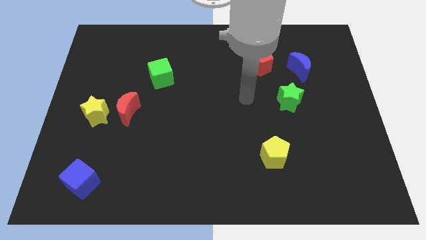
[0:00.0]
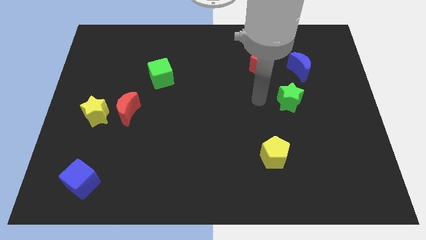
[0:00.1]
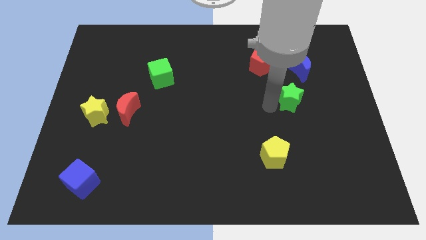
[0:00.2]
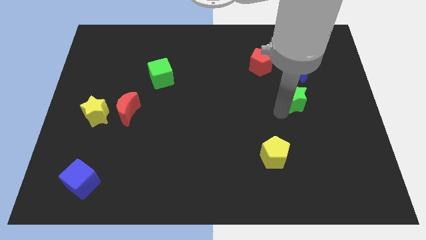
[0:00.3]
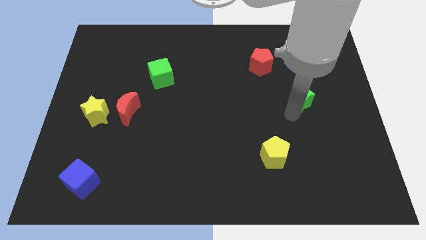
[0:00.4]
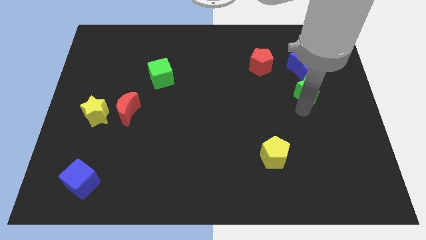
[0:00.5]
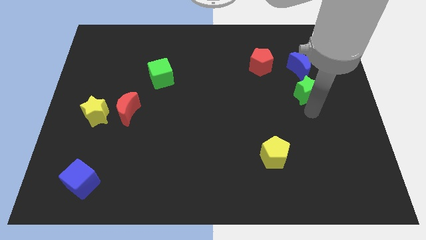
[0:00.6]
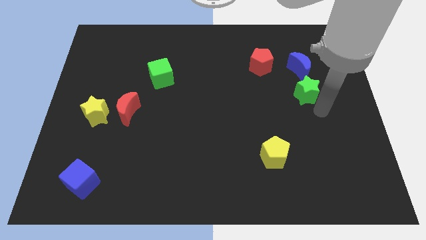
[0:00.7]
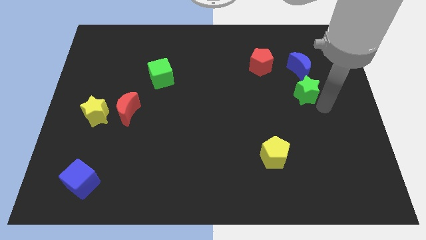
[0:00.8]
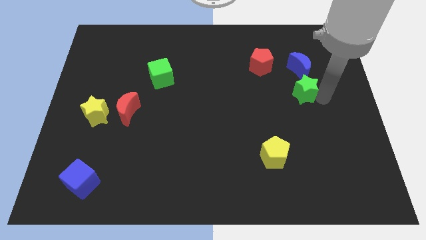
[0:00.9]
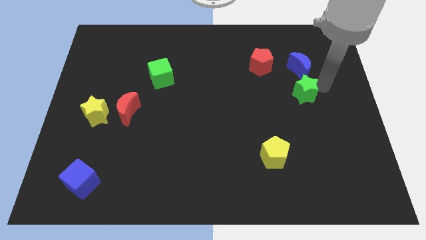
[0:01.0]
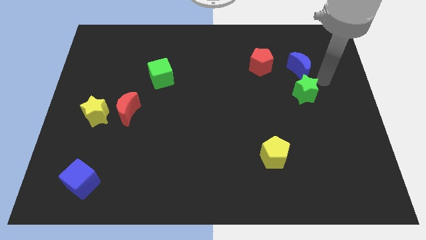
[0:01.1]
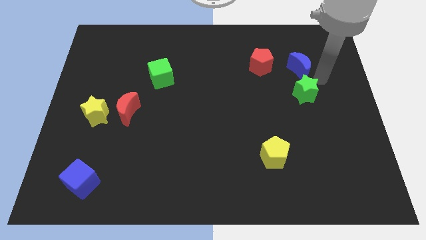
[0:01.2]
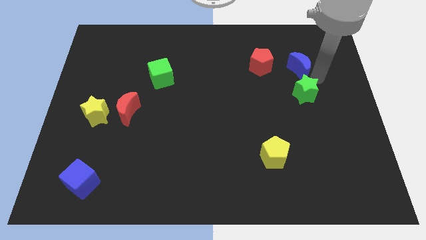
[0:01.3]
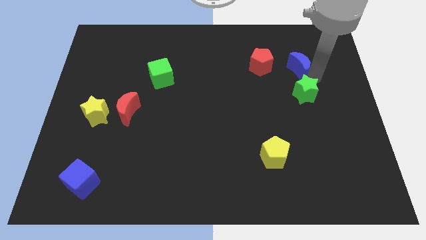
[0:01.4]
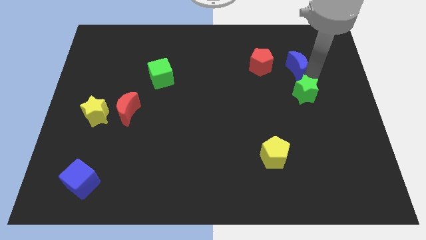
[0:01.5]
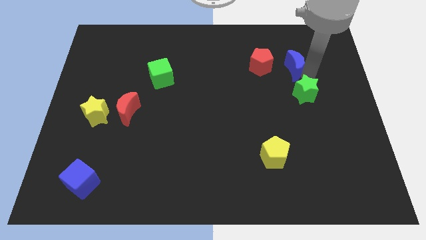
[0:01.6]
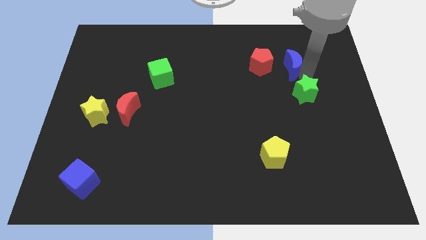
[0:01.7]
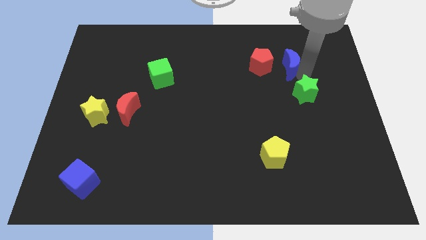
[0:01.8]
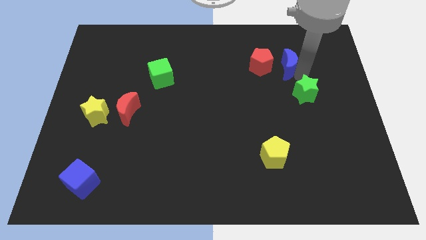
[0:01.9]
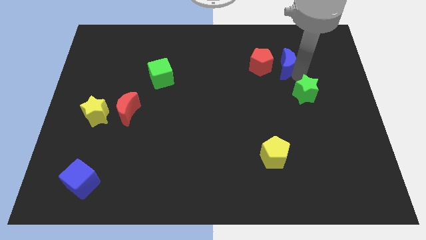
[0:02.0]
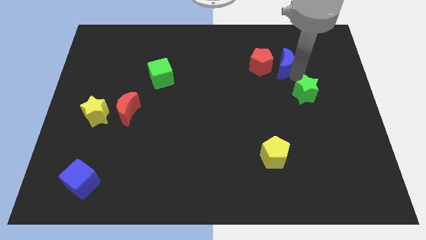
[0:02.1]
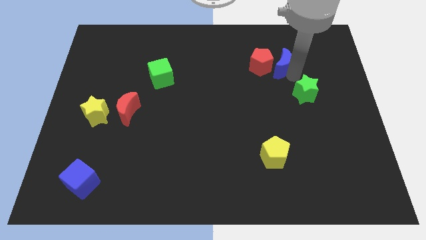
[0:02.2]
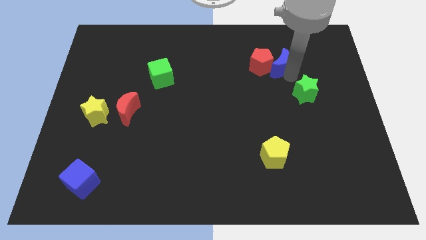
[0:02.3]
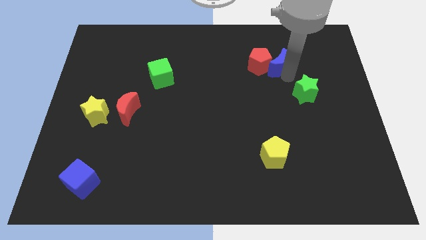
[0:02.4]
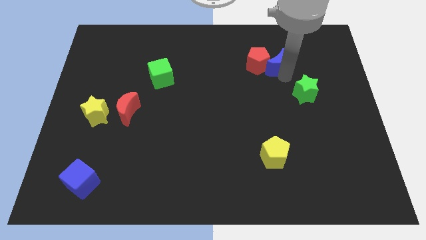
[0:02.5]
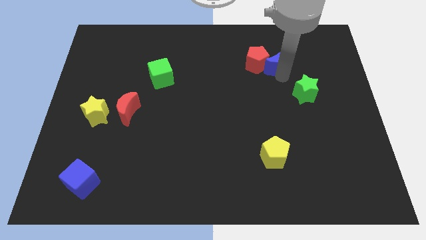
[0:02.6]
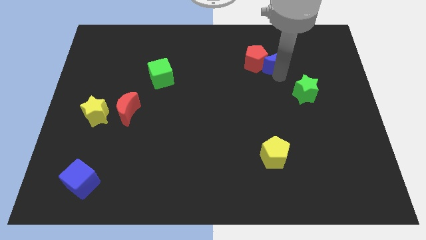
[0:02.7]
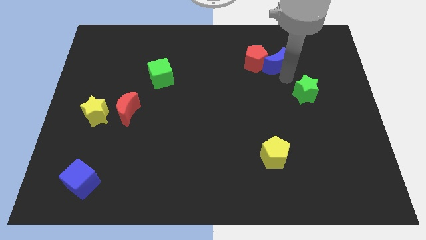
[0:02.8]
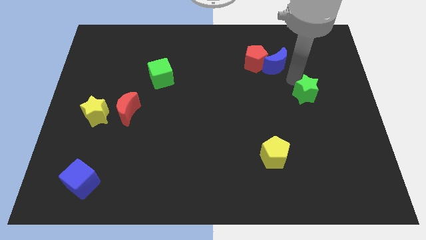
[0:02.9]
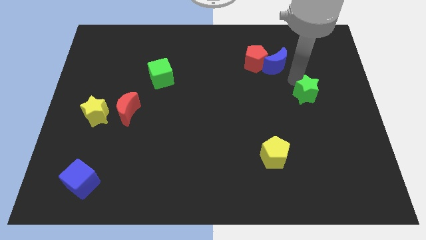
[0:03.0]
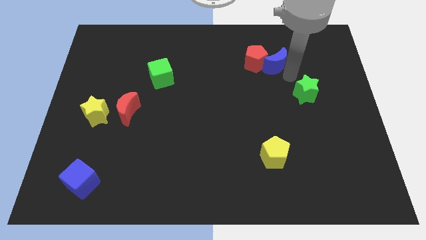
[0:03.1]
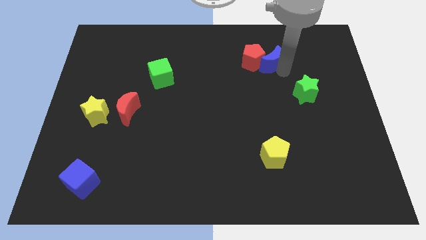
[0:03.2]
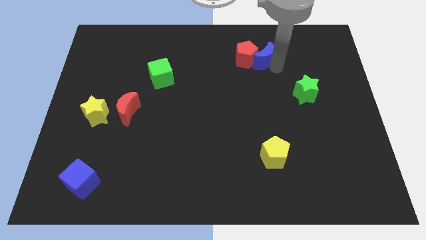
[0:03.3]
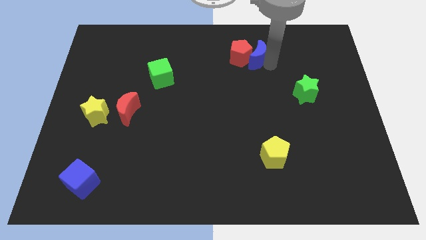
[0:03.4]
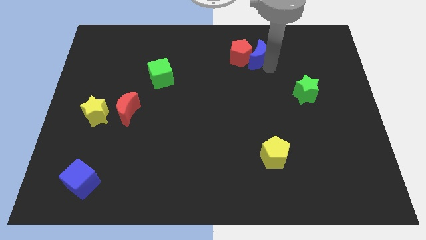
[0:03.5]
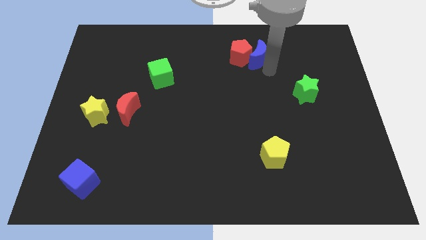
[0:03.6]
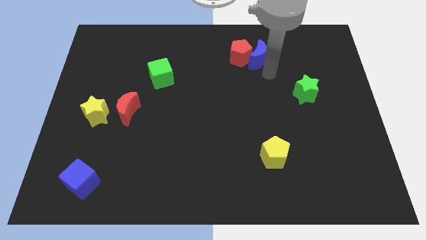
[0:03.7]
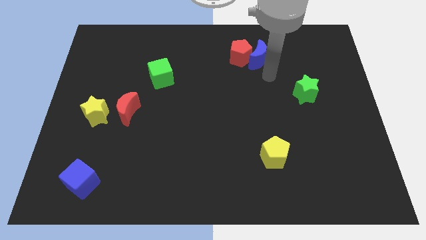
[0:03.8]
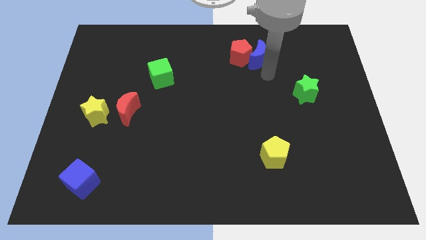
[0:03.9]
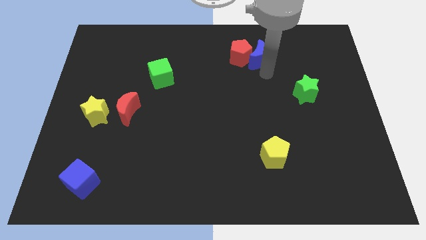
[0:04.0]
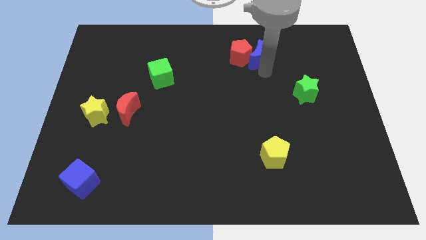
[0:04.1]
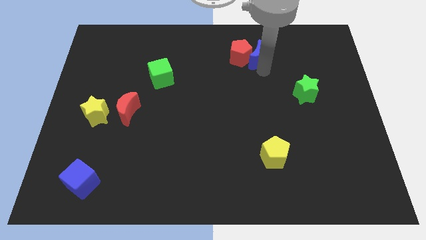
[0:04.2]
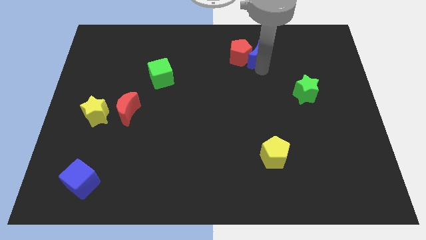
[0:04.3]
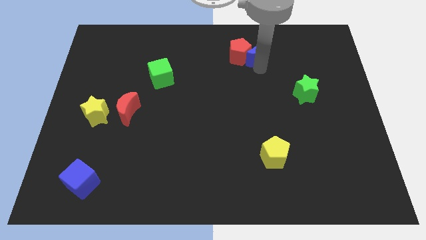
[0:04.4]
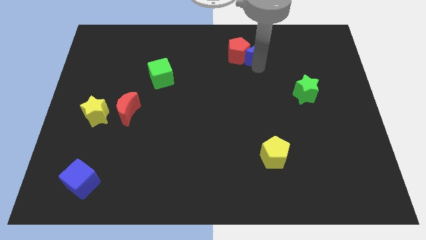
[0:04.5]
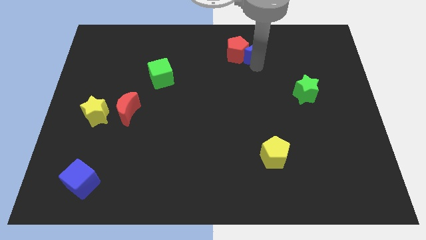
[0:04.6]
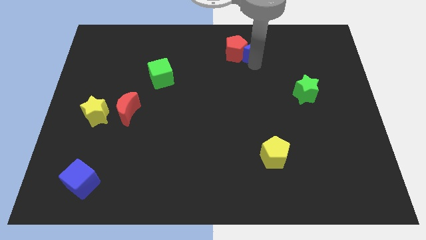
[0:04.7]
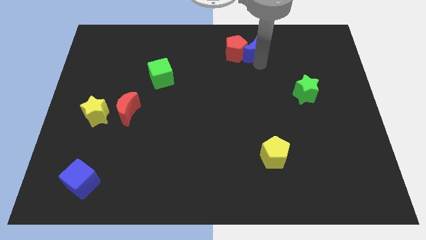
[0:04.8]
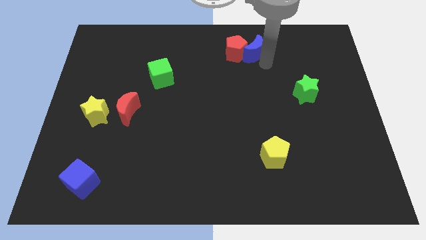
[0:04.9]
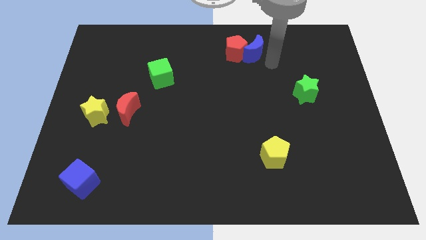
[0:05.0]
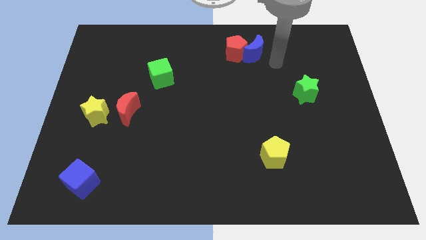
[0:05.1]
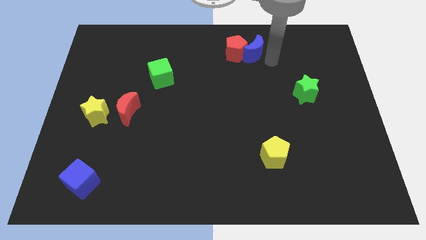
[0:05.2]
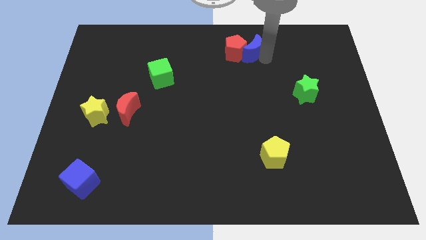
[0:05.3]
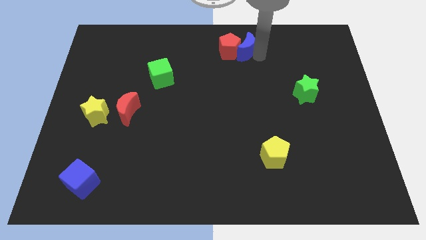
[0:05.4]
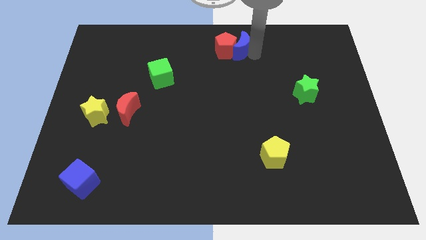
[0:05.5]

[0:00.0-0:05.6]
put the blue moon to the top

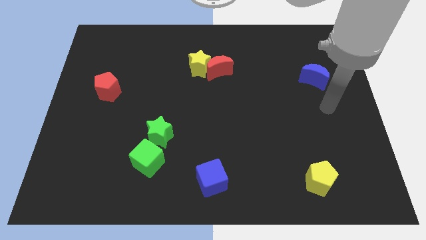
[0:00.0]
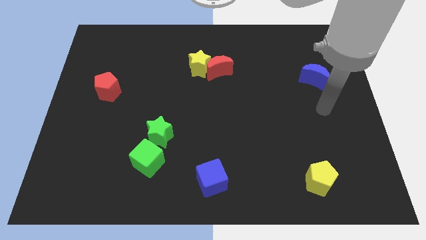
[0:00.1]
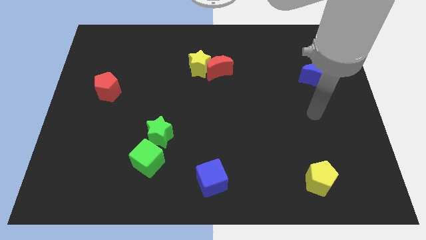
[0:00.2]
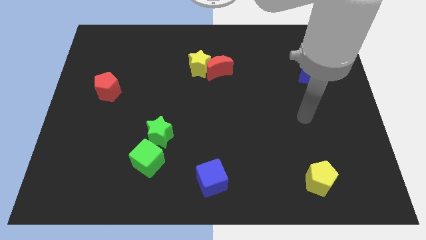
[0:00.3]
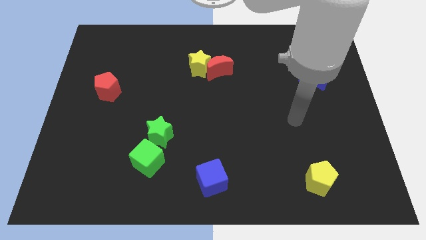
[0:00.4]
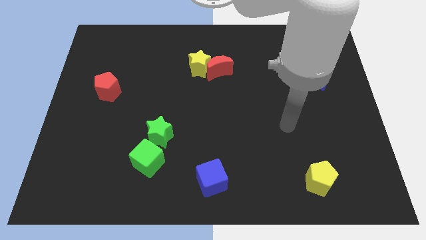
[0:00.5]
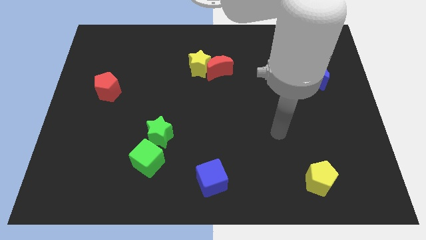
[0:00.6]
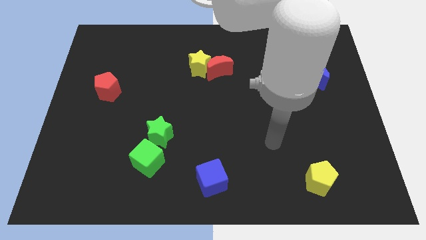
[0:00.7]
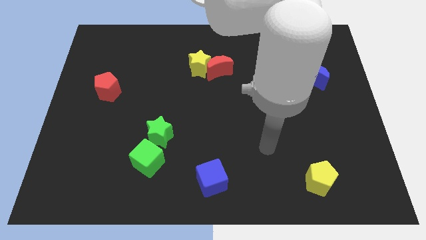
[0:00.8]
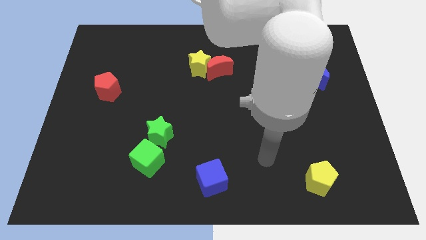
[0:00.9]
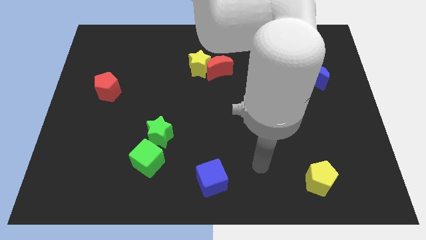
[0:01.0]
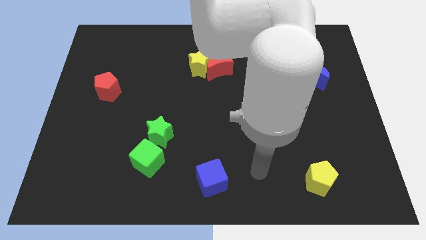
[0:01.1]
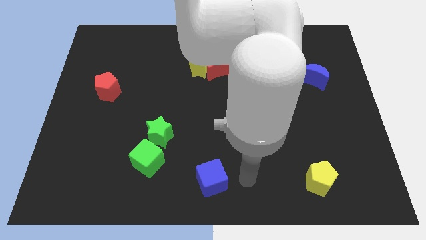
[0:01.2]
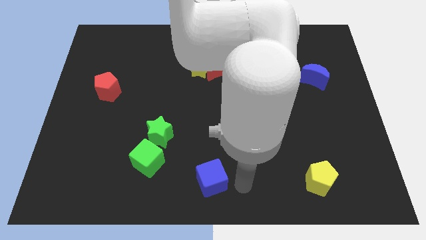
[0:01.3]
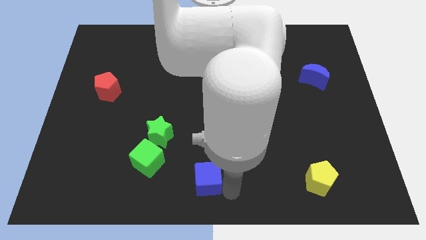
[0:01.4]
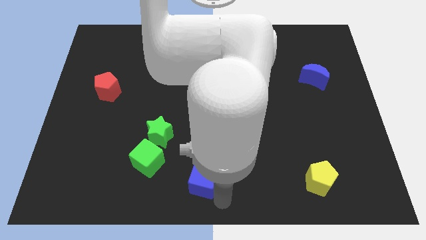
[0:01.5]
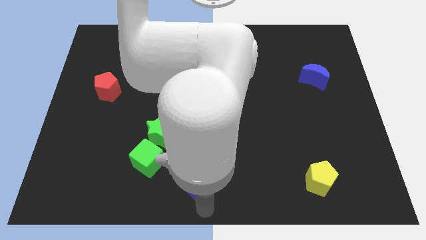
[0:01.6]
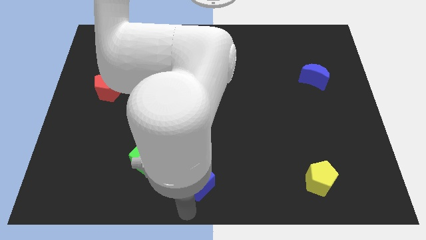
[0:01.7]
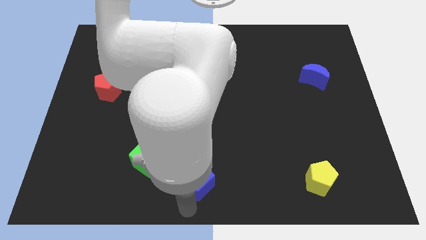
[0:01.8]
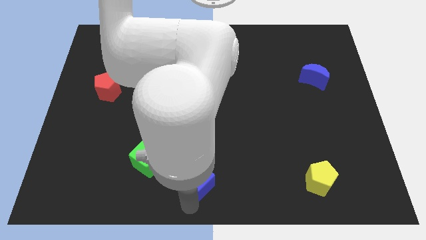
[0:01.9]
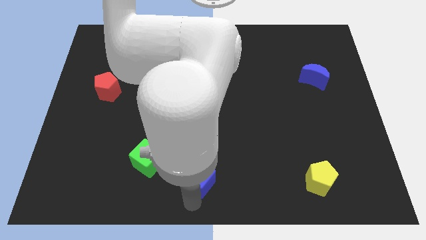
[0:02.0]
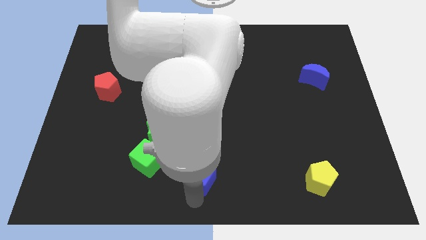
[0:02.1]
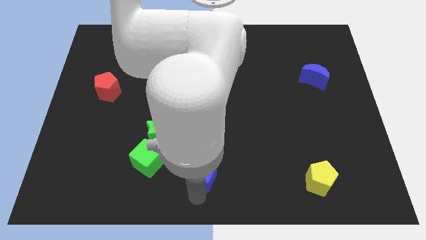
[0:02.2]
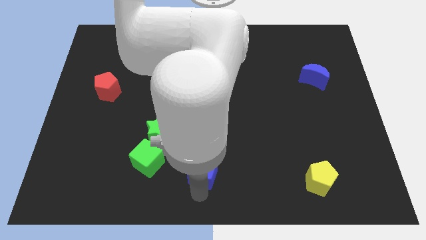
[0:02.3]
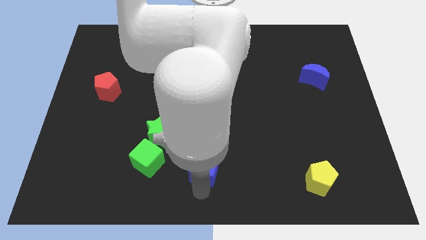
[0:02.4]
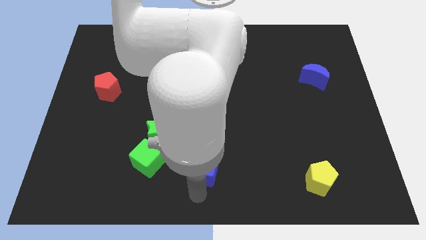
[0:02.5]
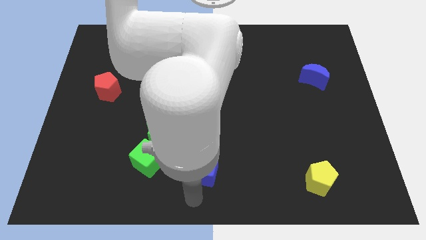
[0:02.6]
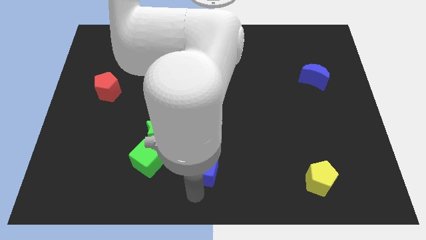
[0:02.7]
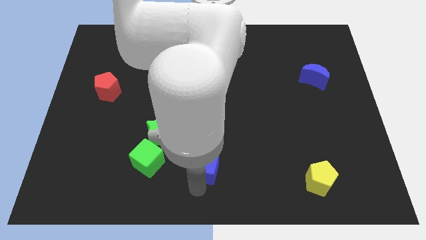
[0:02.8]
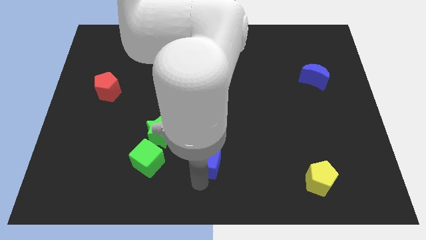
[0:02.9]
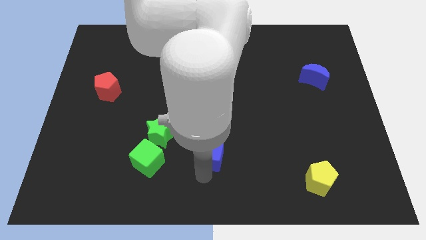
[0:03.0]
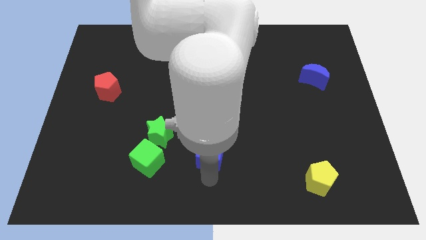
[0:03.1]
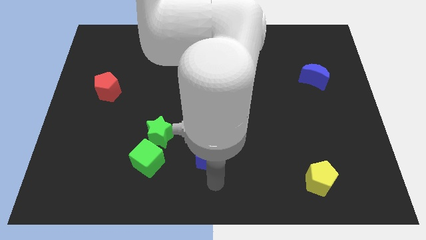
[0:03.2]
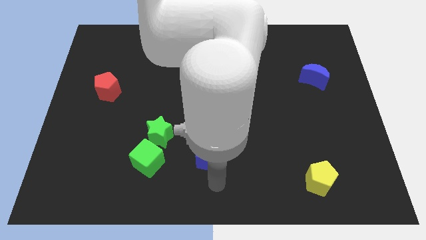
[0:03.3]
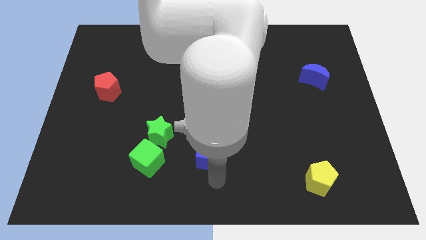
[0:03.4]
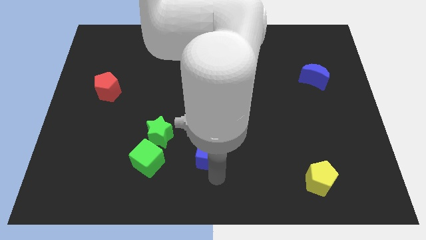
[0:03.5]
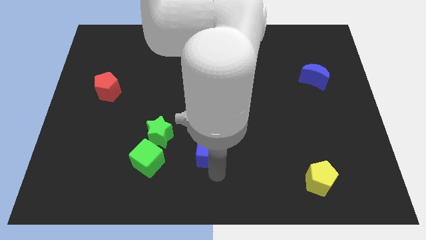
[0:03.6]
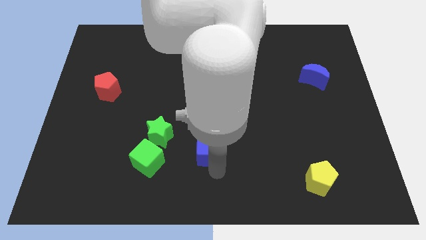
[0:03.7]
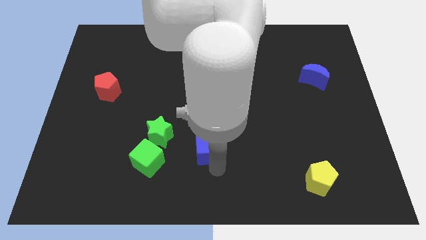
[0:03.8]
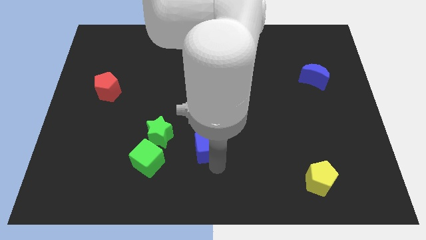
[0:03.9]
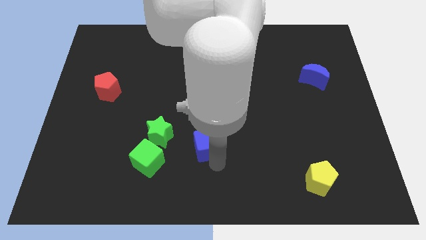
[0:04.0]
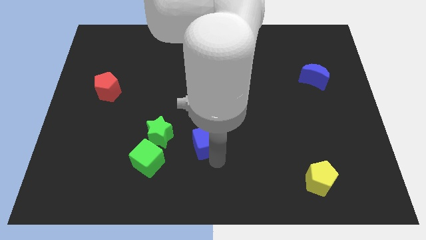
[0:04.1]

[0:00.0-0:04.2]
put the blue cube to the middle
